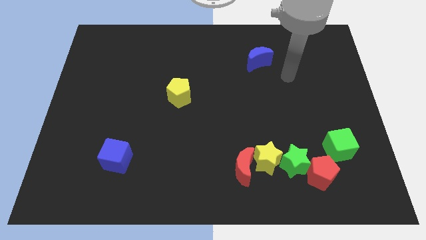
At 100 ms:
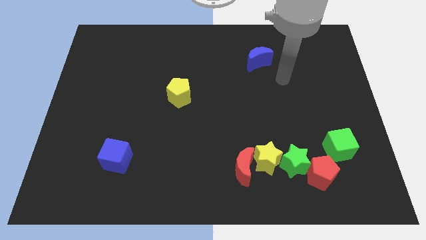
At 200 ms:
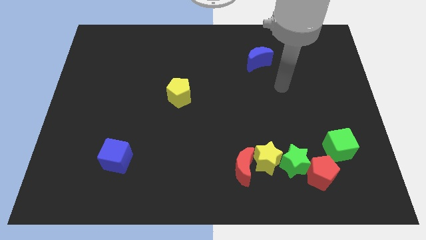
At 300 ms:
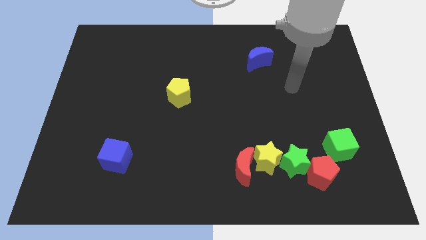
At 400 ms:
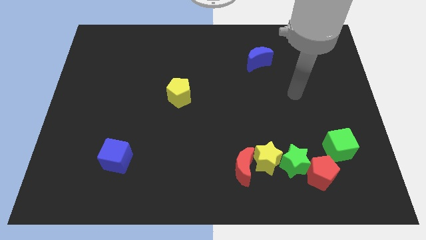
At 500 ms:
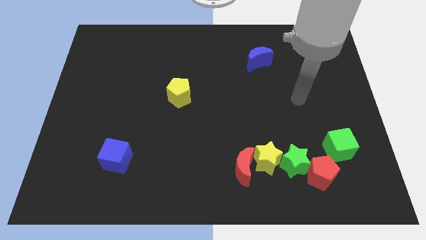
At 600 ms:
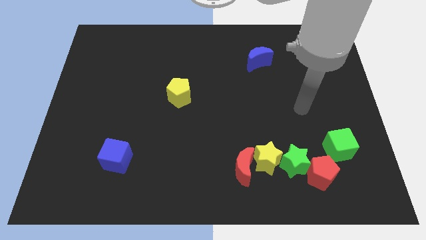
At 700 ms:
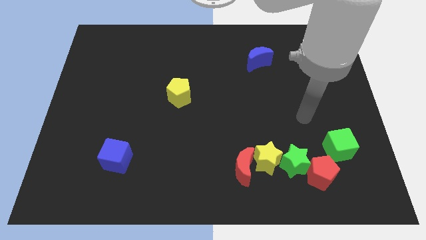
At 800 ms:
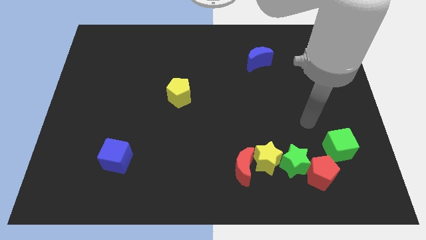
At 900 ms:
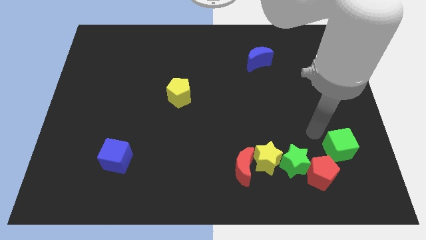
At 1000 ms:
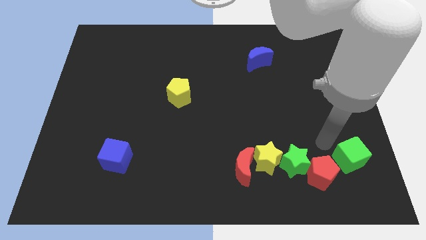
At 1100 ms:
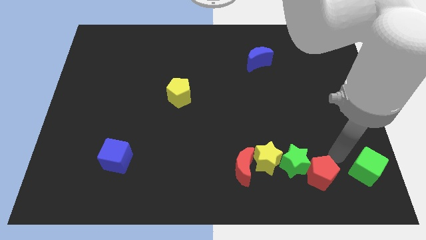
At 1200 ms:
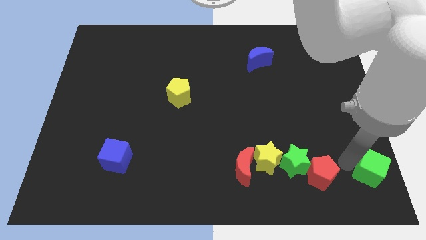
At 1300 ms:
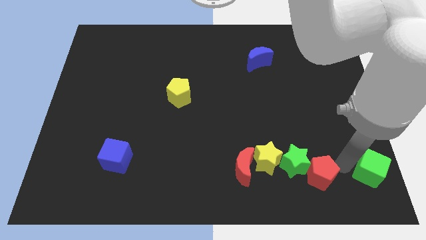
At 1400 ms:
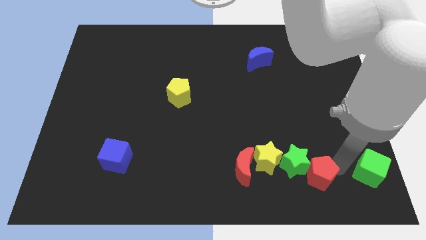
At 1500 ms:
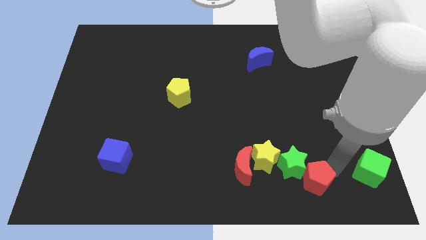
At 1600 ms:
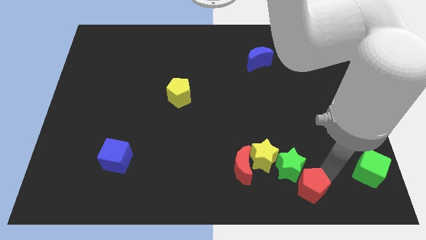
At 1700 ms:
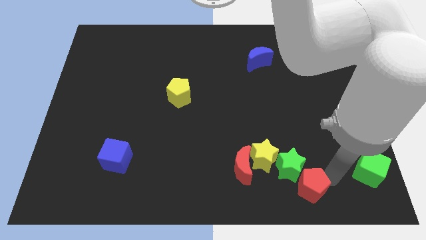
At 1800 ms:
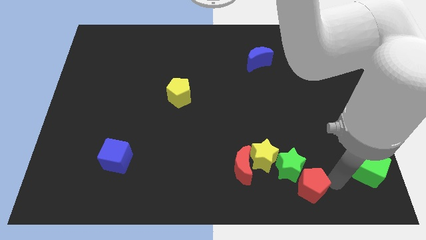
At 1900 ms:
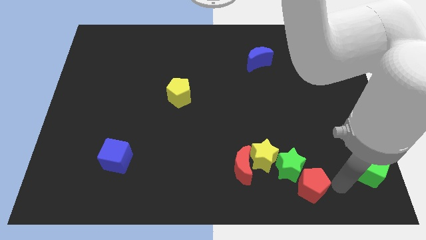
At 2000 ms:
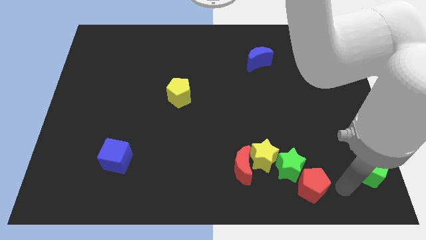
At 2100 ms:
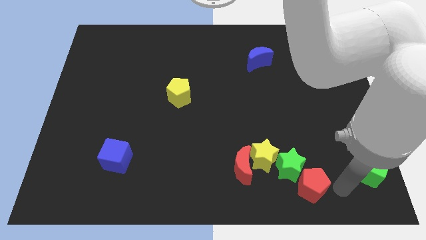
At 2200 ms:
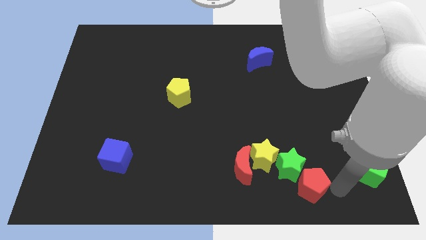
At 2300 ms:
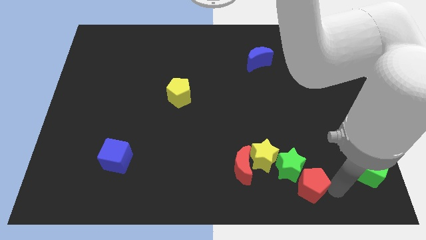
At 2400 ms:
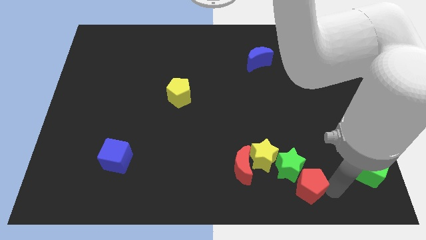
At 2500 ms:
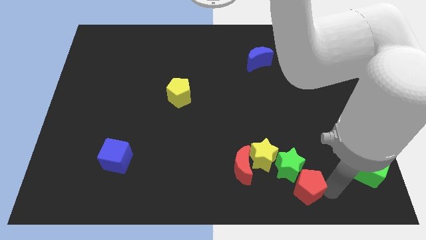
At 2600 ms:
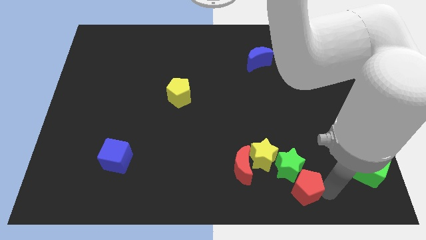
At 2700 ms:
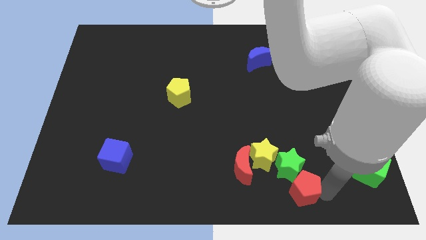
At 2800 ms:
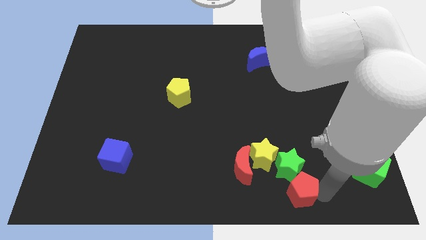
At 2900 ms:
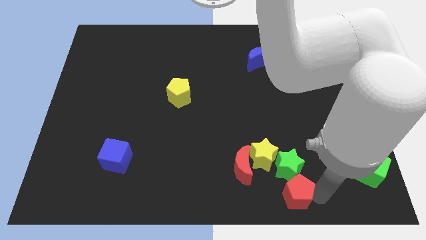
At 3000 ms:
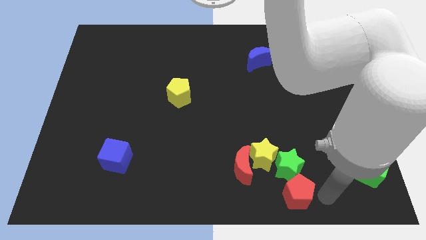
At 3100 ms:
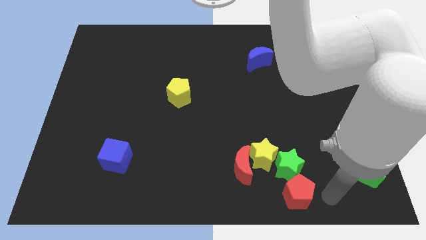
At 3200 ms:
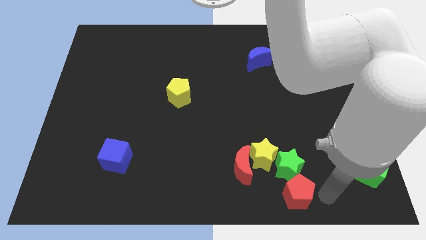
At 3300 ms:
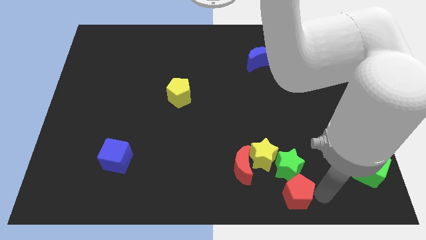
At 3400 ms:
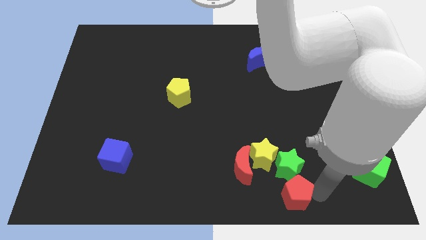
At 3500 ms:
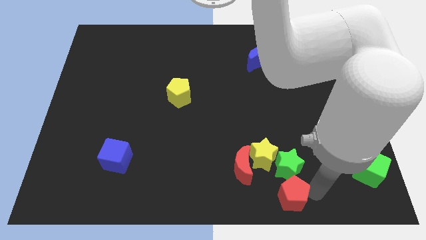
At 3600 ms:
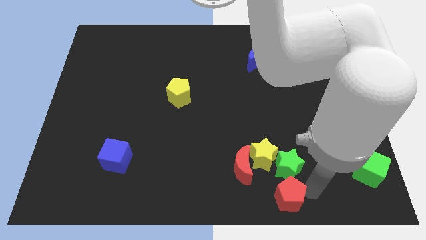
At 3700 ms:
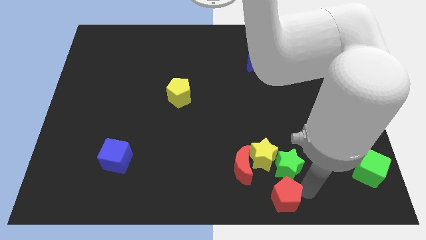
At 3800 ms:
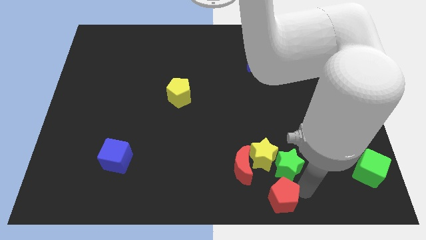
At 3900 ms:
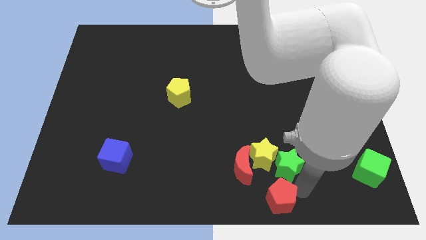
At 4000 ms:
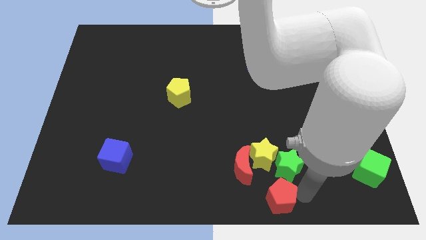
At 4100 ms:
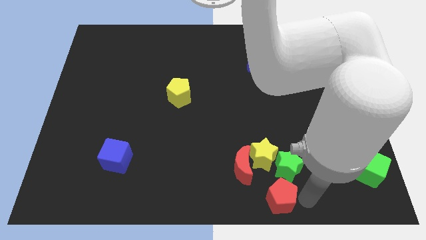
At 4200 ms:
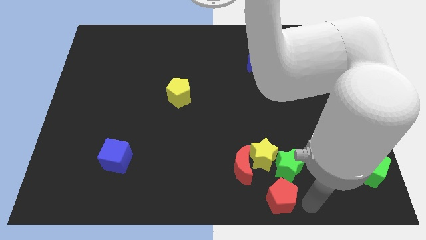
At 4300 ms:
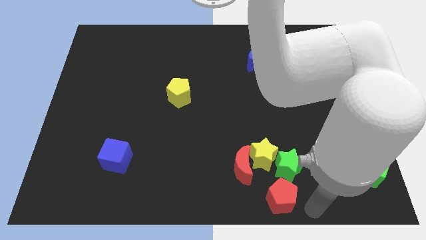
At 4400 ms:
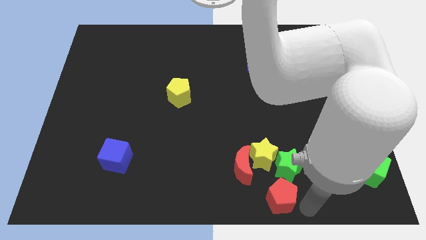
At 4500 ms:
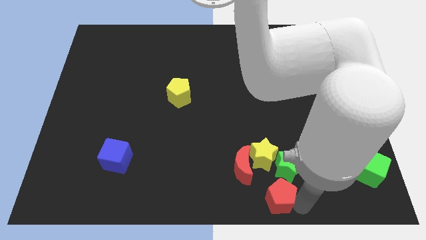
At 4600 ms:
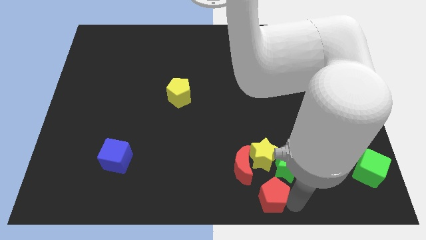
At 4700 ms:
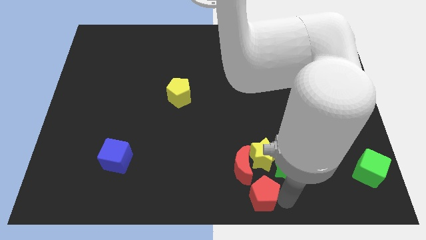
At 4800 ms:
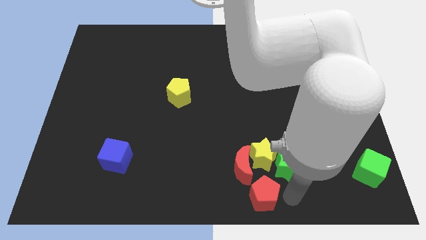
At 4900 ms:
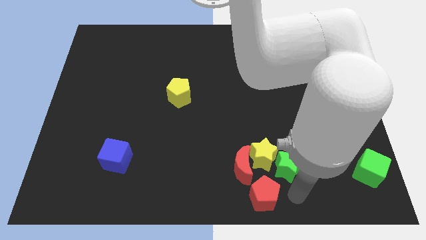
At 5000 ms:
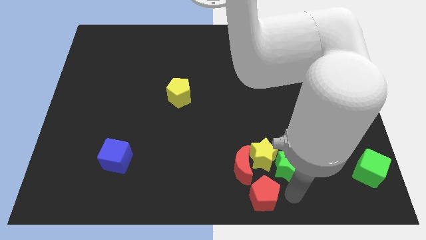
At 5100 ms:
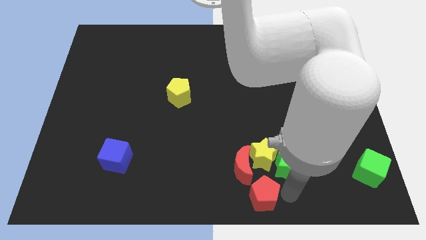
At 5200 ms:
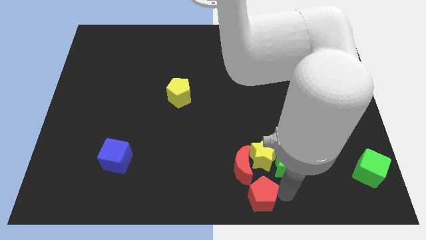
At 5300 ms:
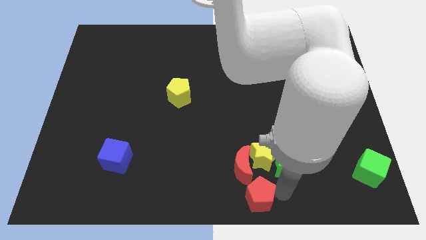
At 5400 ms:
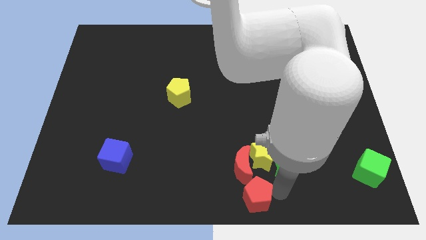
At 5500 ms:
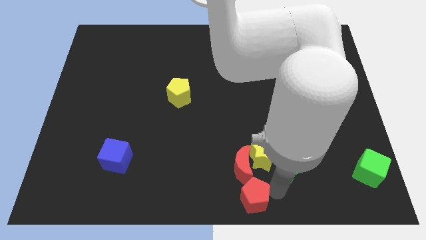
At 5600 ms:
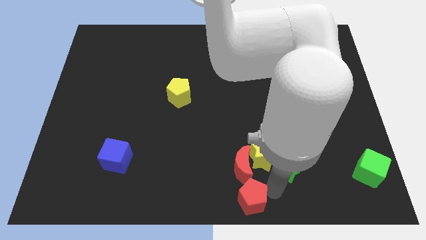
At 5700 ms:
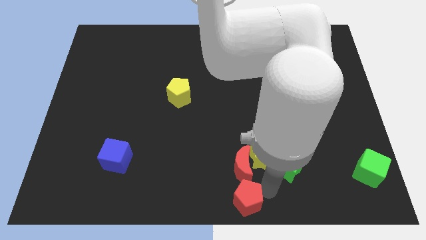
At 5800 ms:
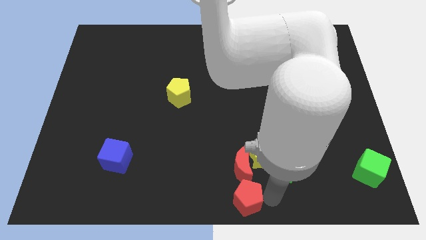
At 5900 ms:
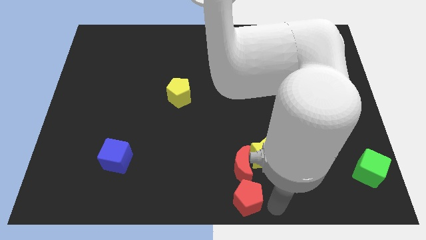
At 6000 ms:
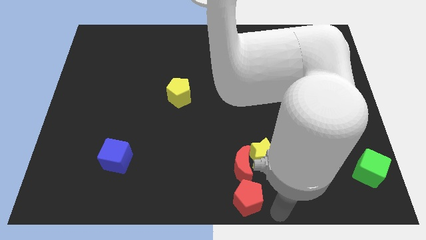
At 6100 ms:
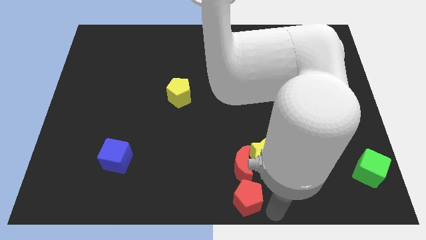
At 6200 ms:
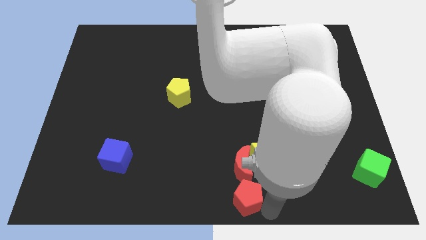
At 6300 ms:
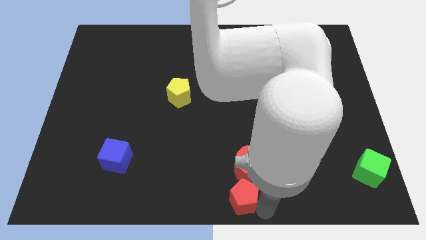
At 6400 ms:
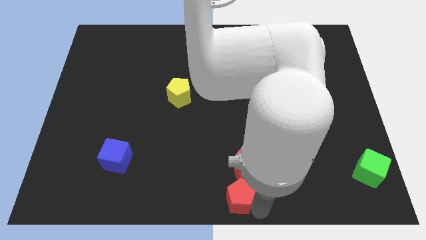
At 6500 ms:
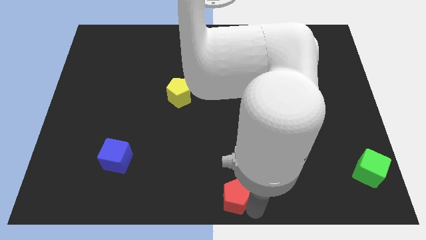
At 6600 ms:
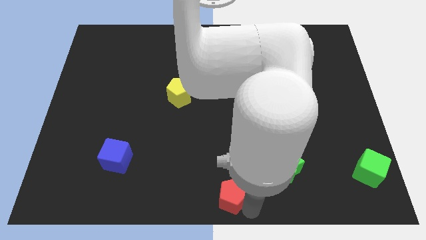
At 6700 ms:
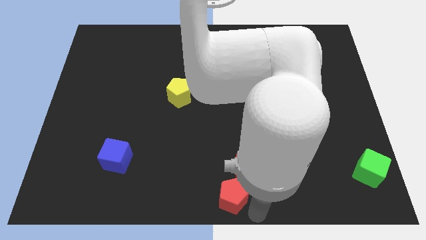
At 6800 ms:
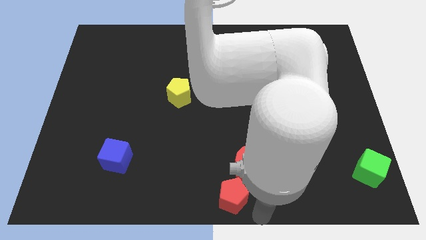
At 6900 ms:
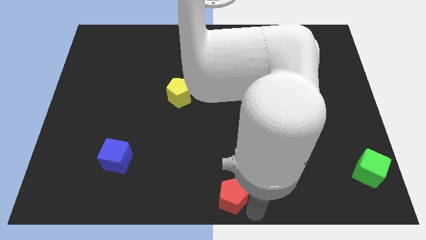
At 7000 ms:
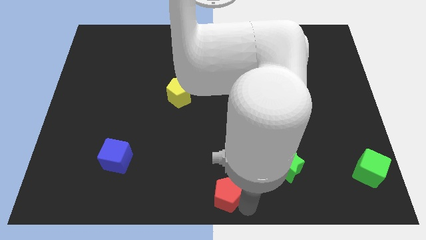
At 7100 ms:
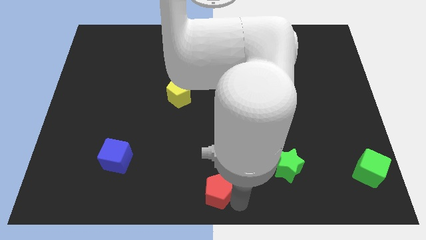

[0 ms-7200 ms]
move the red pentagon to the left

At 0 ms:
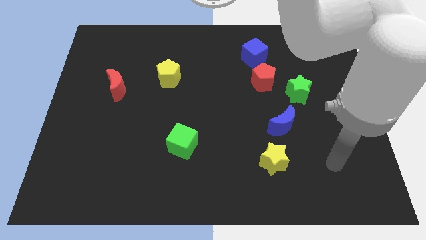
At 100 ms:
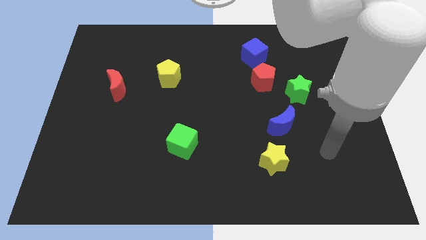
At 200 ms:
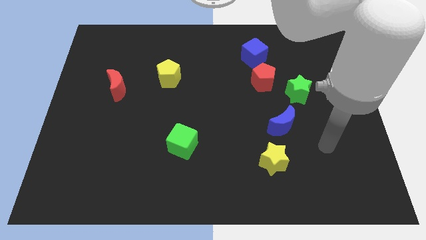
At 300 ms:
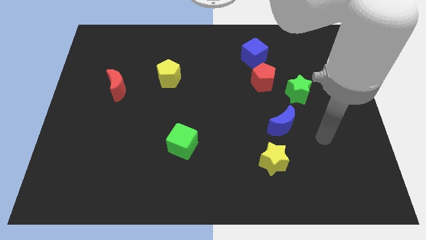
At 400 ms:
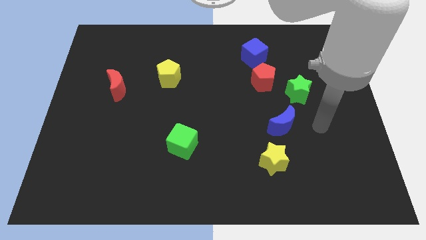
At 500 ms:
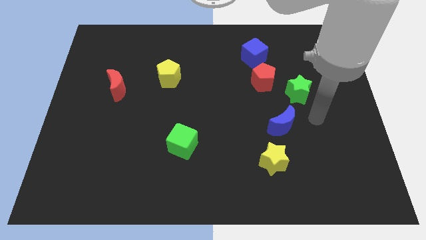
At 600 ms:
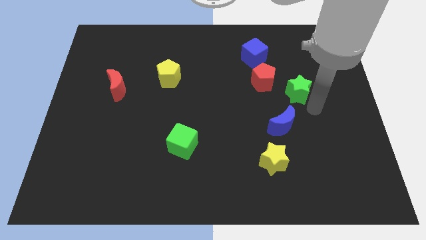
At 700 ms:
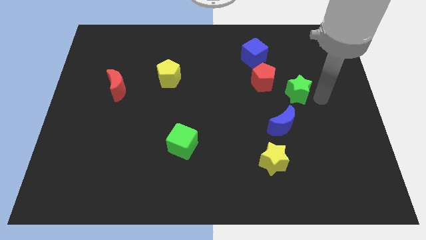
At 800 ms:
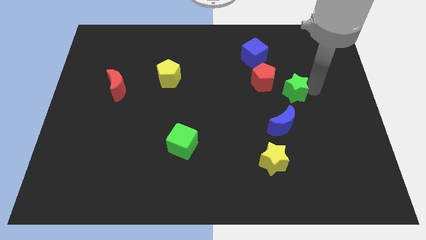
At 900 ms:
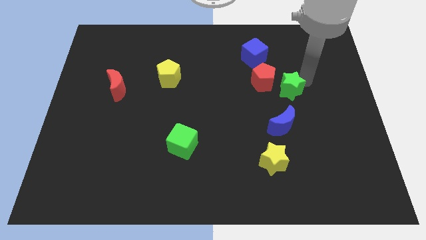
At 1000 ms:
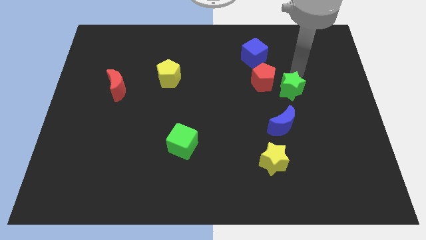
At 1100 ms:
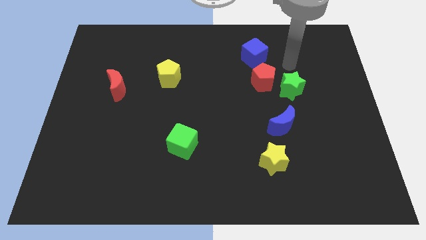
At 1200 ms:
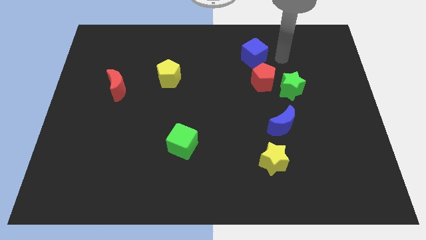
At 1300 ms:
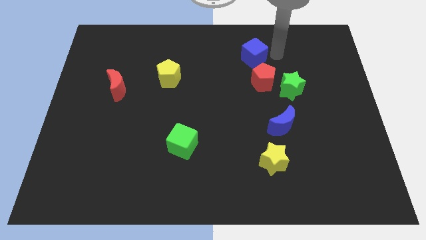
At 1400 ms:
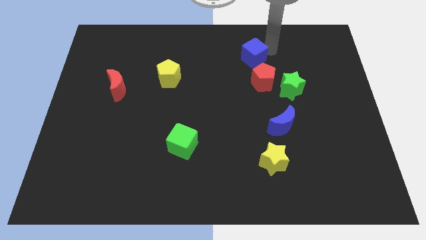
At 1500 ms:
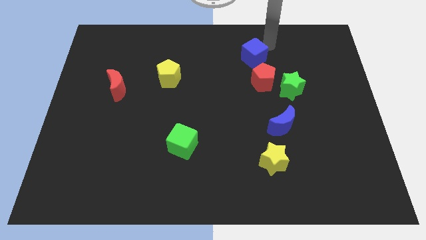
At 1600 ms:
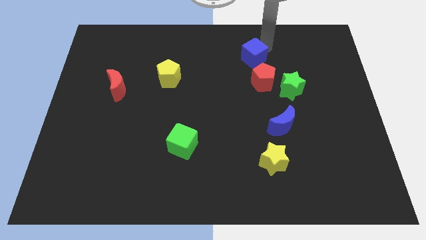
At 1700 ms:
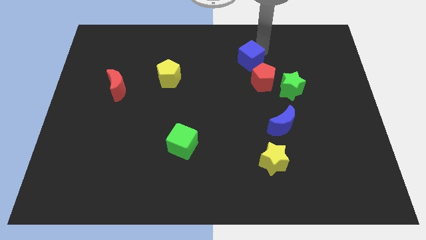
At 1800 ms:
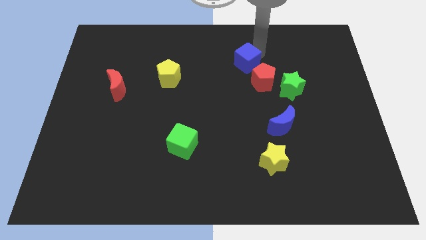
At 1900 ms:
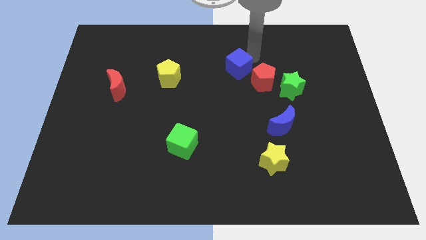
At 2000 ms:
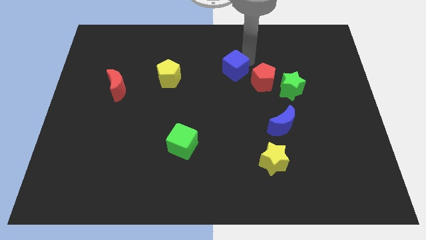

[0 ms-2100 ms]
slightly slide the blue cube downwards and left
